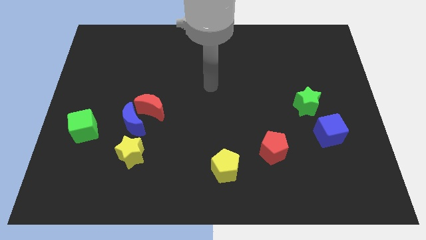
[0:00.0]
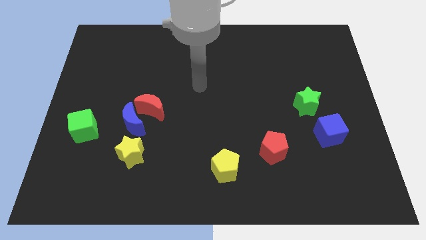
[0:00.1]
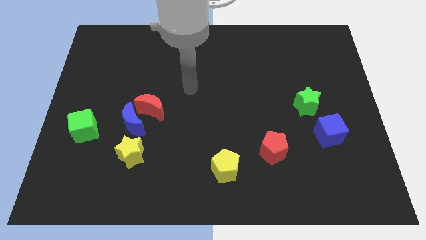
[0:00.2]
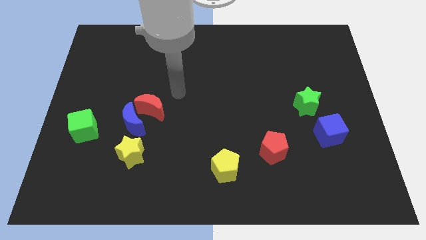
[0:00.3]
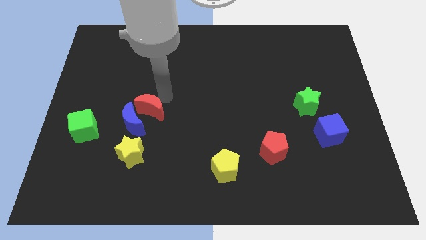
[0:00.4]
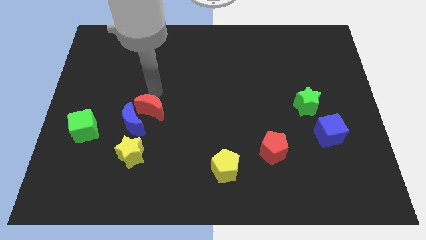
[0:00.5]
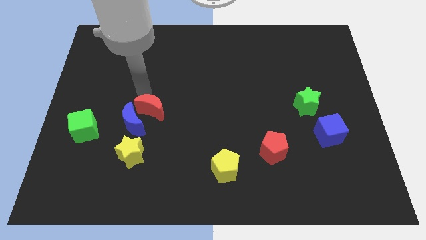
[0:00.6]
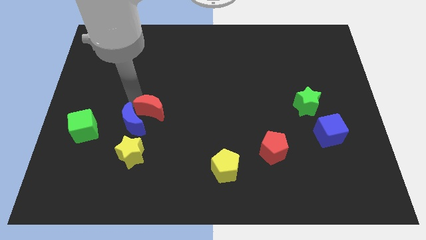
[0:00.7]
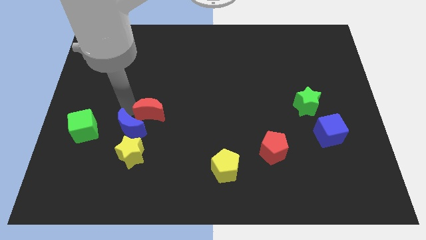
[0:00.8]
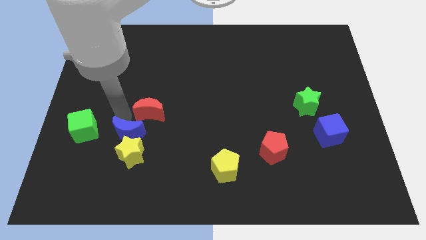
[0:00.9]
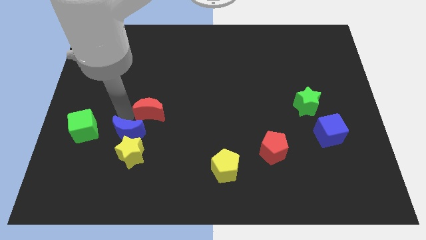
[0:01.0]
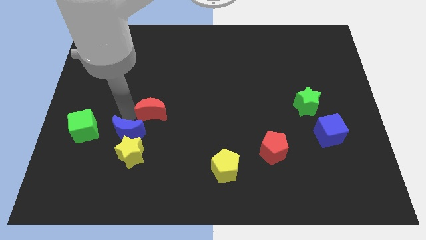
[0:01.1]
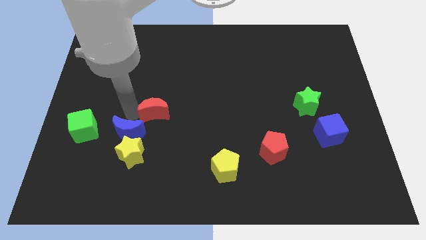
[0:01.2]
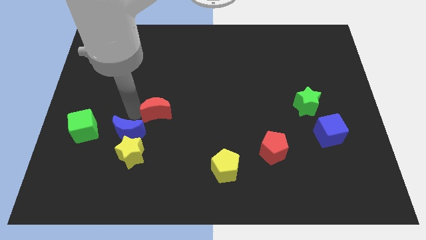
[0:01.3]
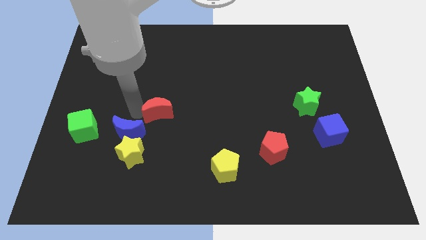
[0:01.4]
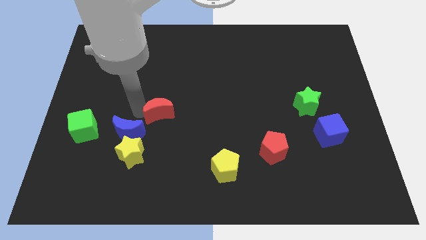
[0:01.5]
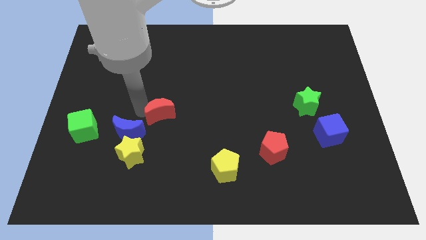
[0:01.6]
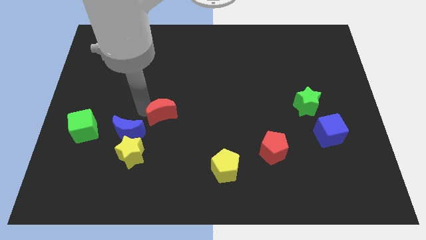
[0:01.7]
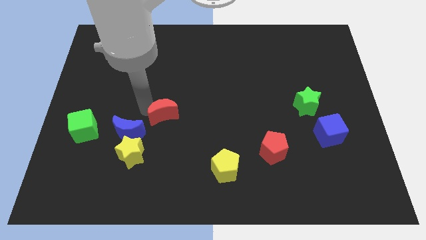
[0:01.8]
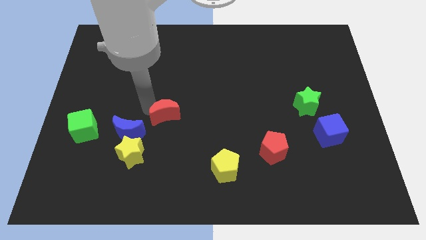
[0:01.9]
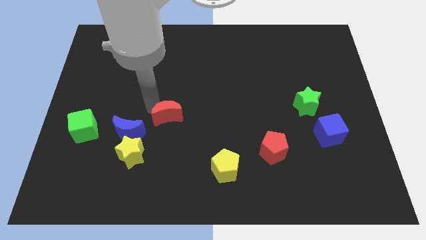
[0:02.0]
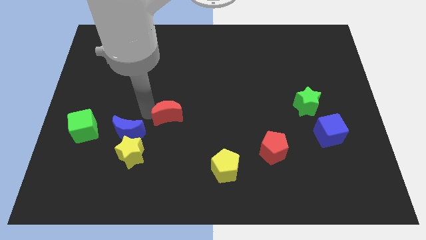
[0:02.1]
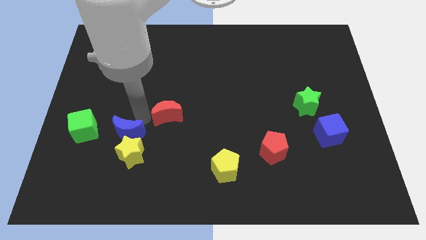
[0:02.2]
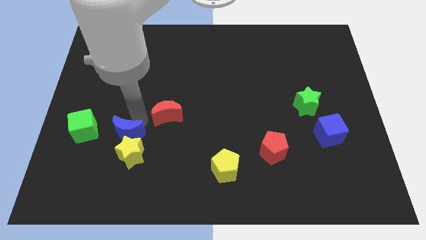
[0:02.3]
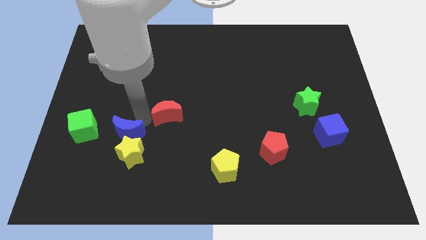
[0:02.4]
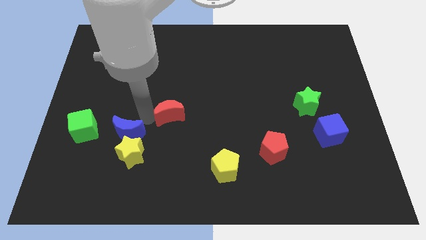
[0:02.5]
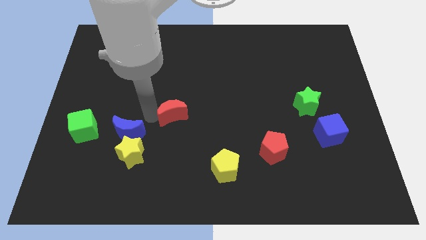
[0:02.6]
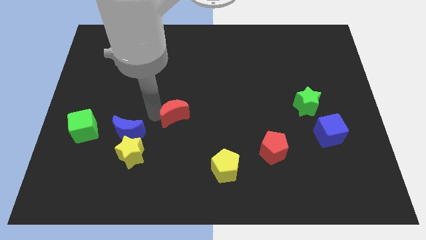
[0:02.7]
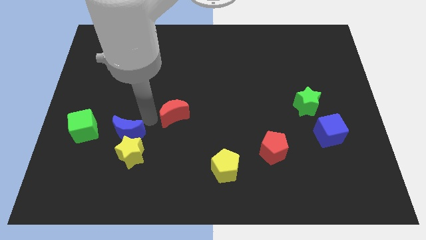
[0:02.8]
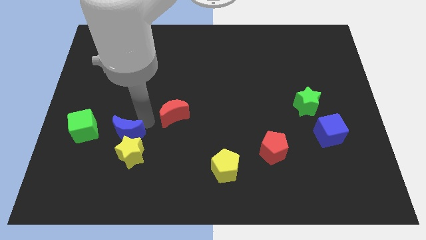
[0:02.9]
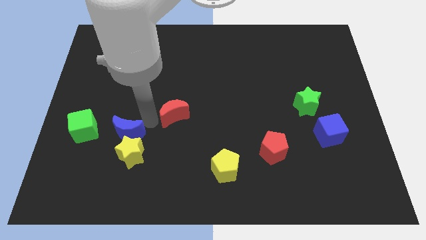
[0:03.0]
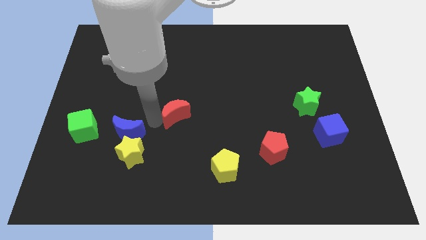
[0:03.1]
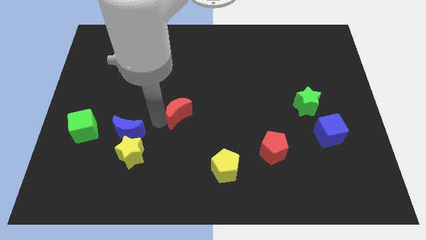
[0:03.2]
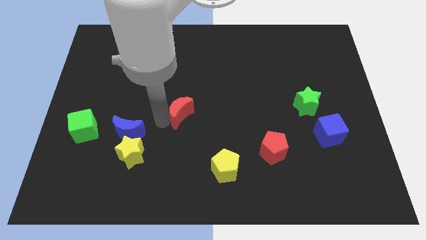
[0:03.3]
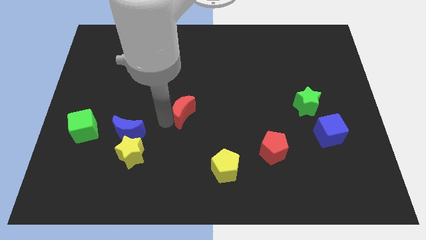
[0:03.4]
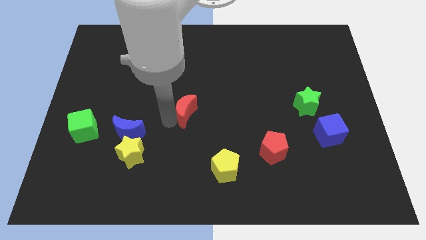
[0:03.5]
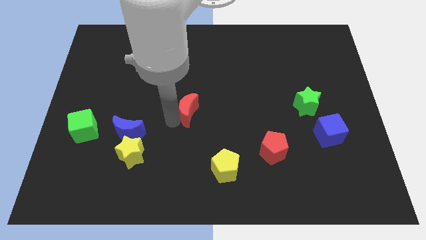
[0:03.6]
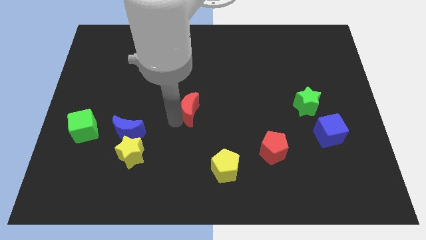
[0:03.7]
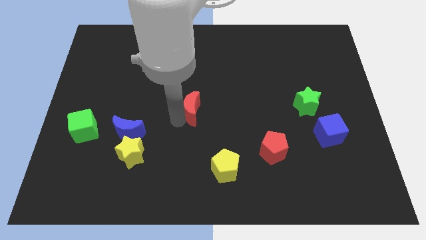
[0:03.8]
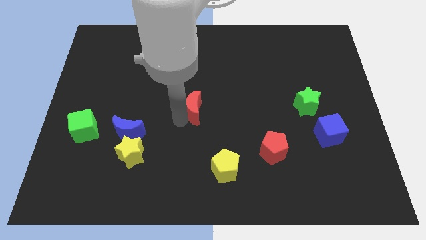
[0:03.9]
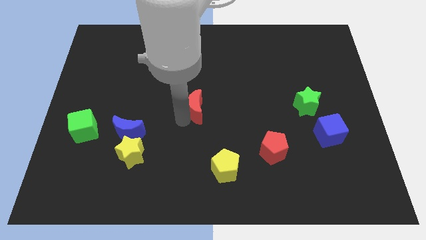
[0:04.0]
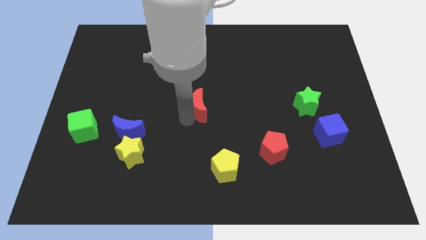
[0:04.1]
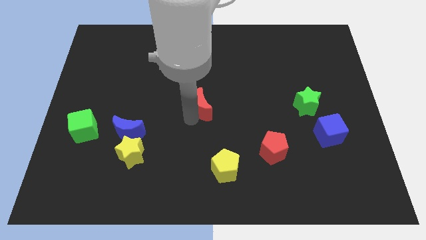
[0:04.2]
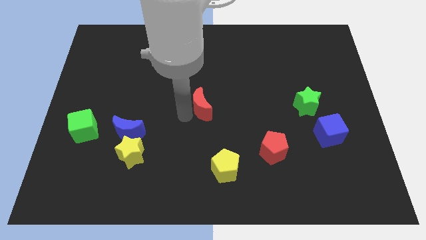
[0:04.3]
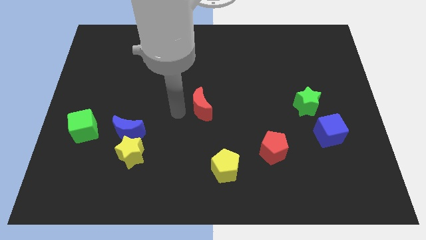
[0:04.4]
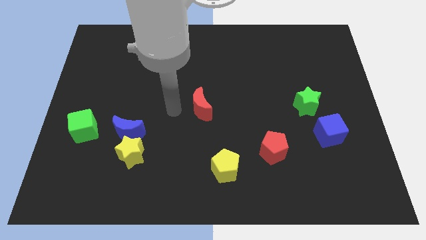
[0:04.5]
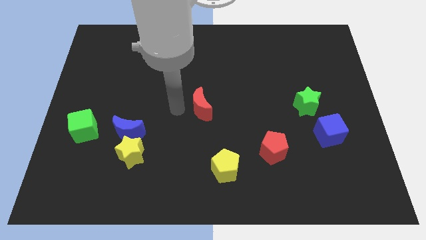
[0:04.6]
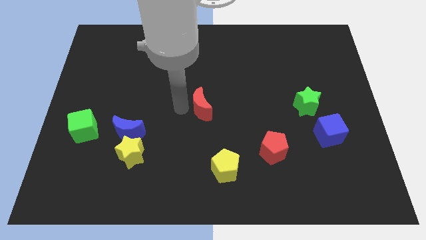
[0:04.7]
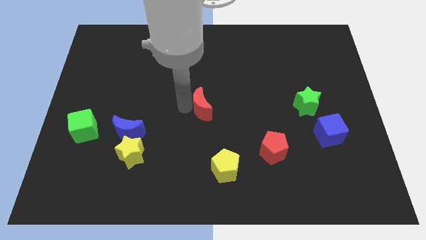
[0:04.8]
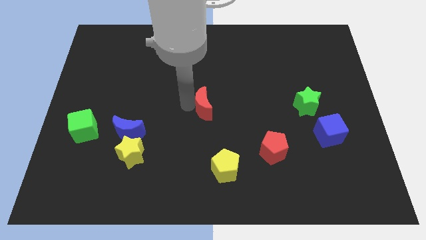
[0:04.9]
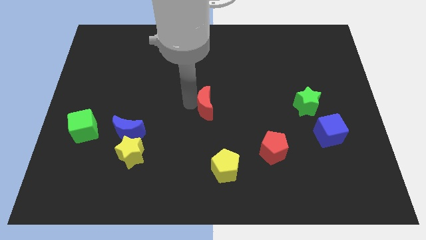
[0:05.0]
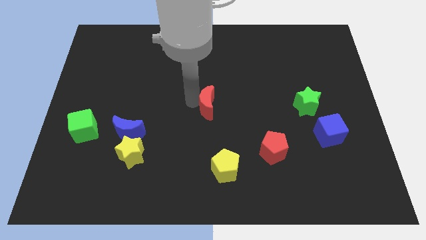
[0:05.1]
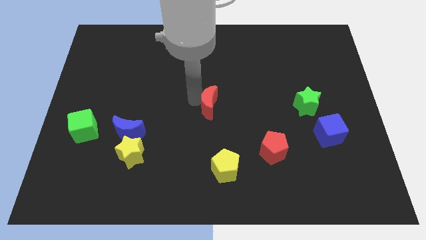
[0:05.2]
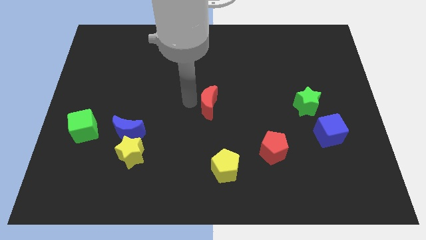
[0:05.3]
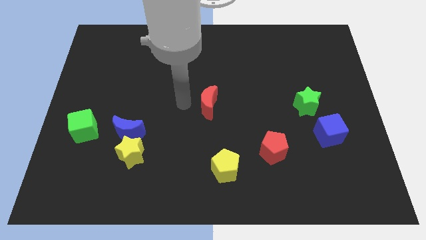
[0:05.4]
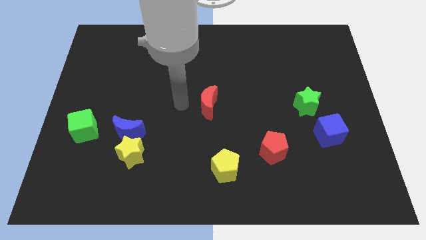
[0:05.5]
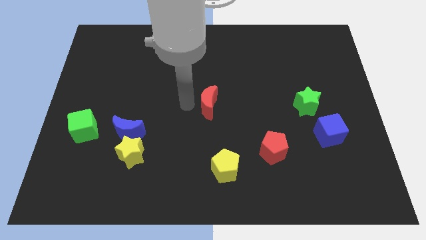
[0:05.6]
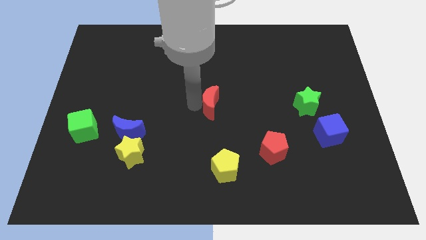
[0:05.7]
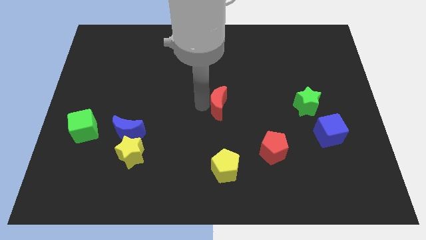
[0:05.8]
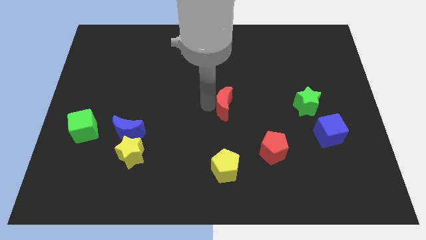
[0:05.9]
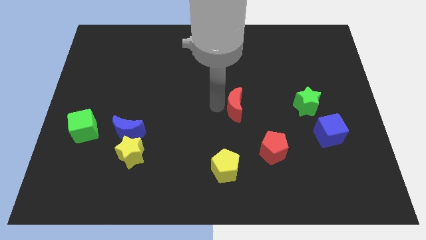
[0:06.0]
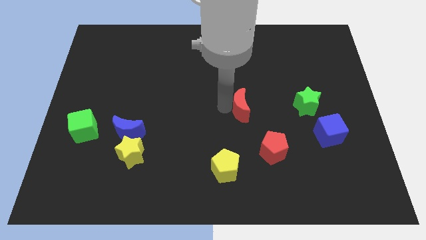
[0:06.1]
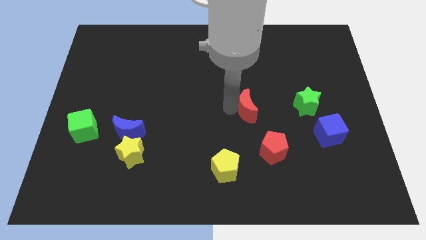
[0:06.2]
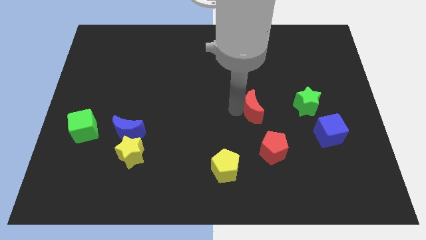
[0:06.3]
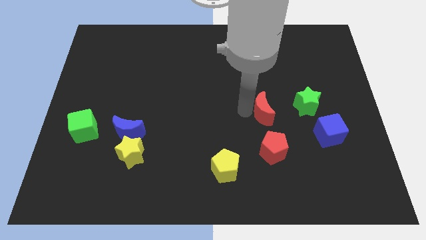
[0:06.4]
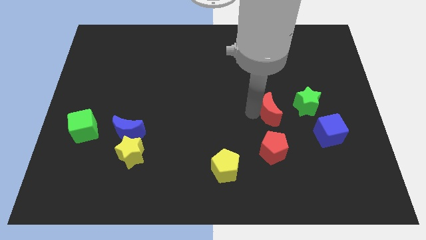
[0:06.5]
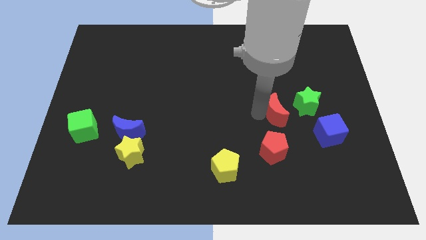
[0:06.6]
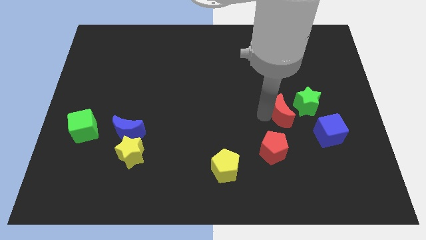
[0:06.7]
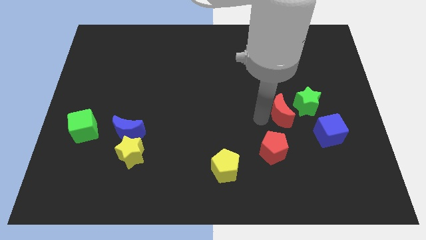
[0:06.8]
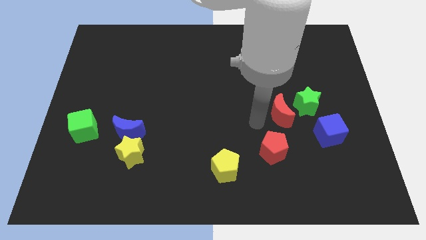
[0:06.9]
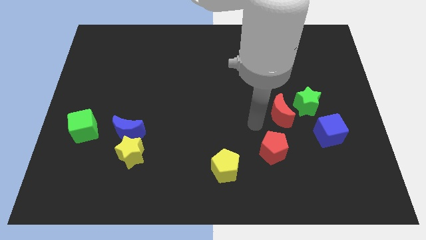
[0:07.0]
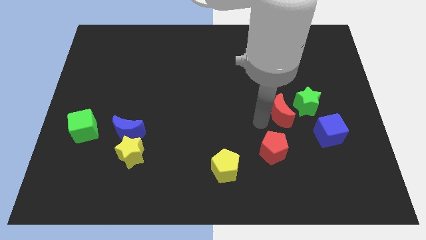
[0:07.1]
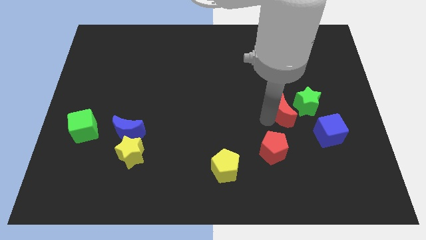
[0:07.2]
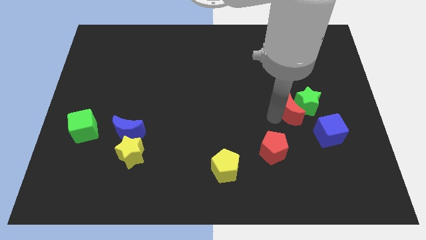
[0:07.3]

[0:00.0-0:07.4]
put the red moon to the green star

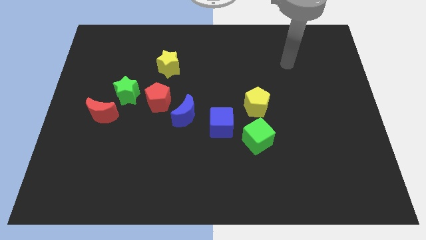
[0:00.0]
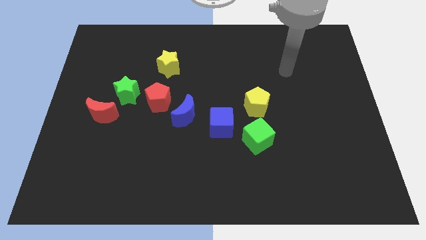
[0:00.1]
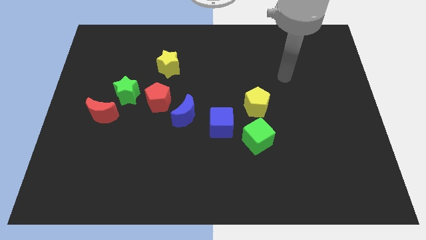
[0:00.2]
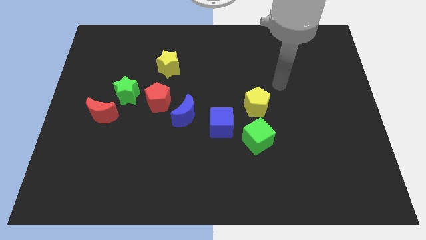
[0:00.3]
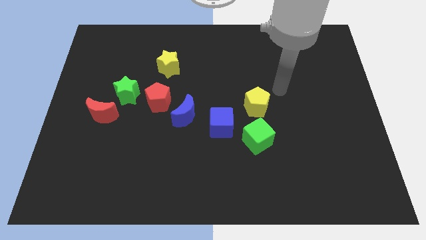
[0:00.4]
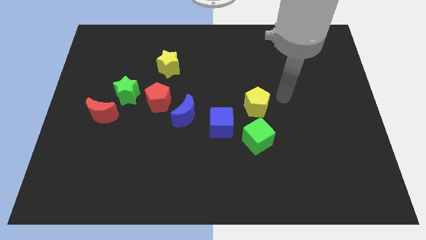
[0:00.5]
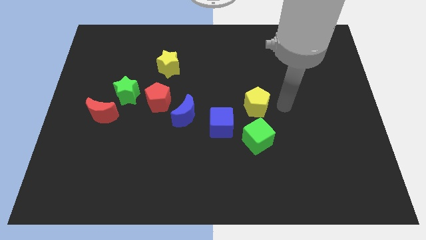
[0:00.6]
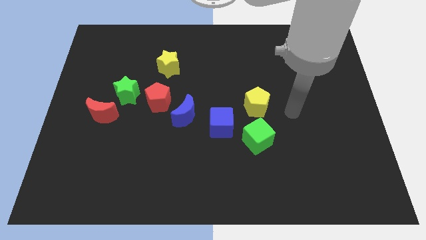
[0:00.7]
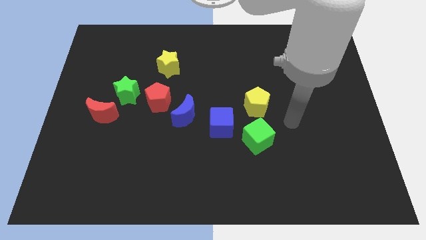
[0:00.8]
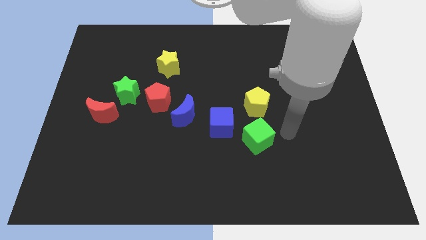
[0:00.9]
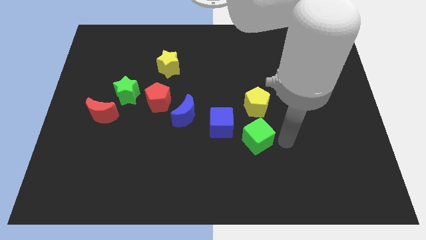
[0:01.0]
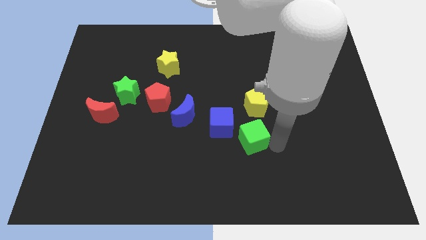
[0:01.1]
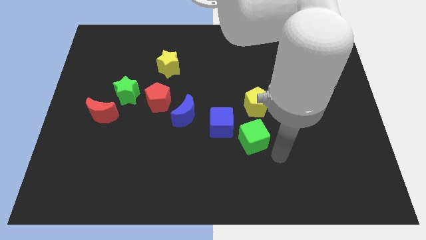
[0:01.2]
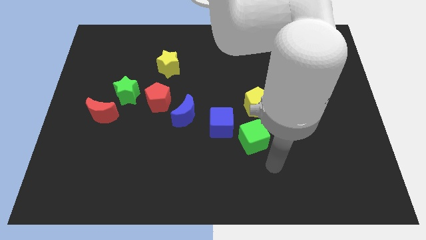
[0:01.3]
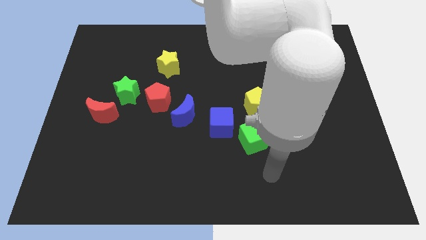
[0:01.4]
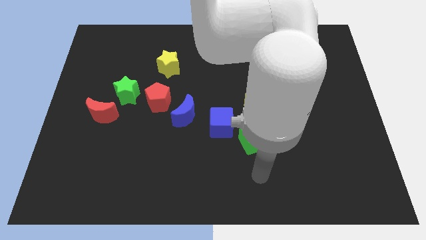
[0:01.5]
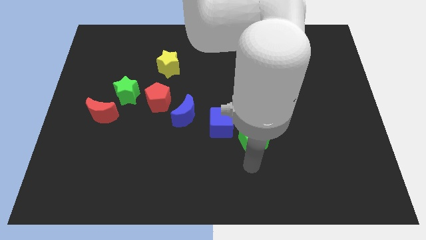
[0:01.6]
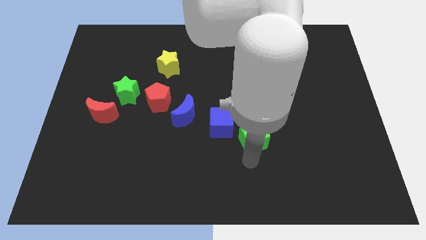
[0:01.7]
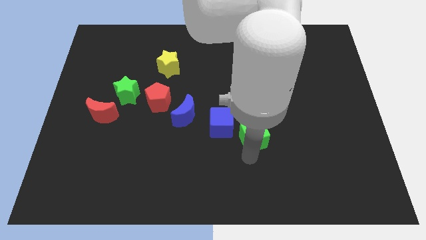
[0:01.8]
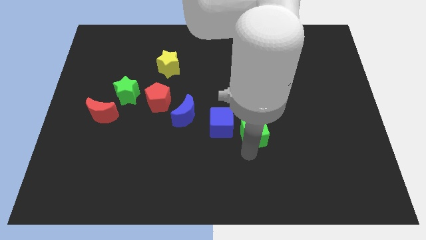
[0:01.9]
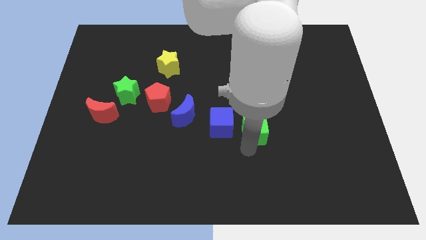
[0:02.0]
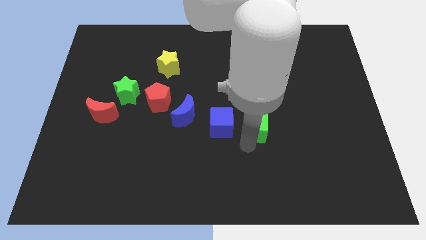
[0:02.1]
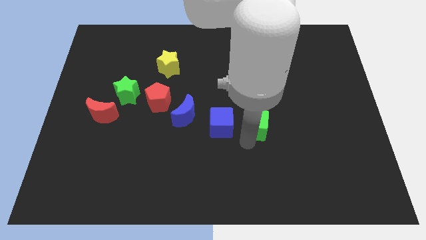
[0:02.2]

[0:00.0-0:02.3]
push the green cube close to the yellow pentagon
